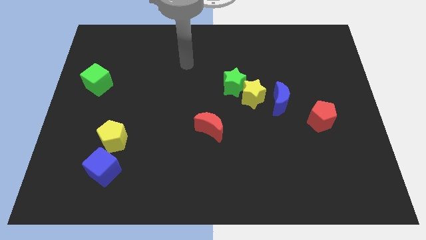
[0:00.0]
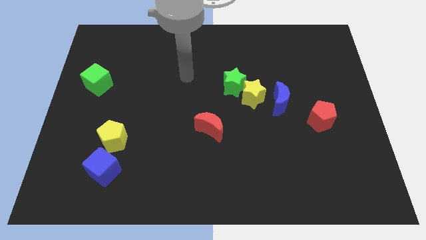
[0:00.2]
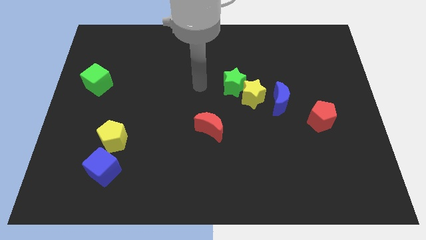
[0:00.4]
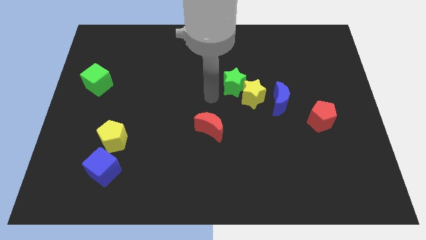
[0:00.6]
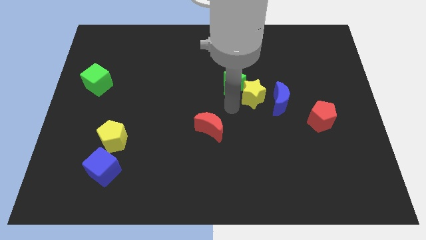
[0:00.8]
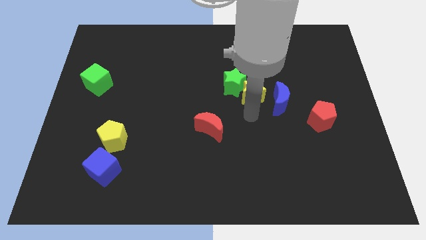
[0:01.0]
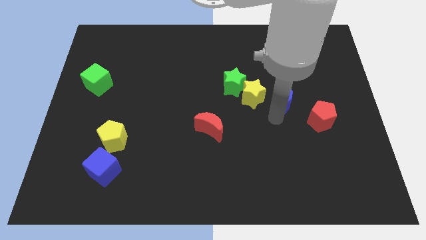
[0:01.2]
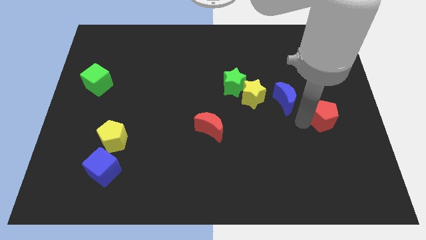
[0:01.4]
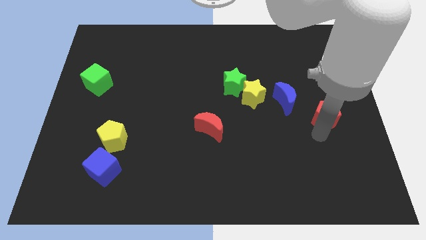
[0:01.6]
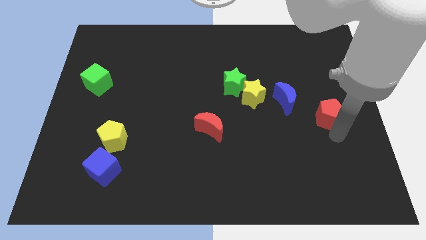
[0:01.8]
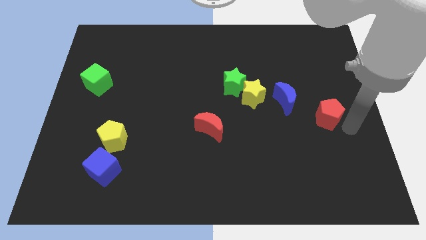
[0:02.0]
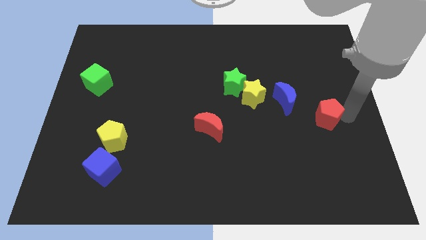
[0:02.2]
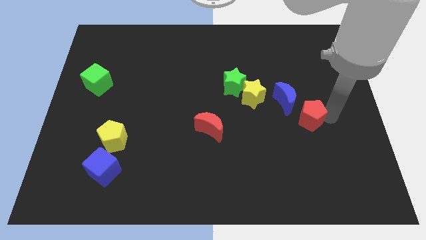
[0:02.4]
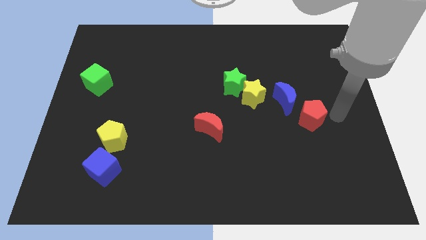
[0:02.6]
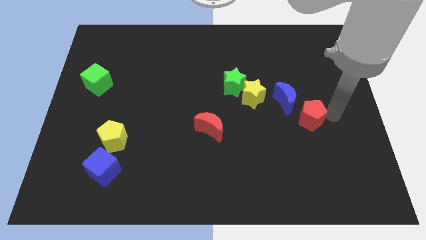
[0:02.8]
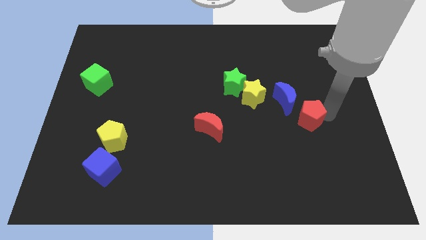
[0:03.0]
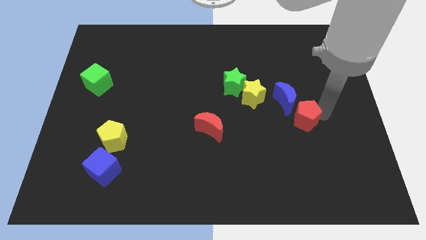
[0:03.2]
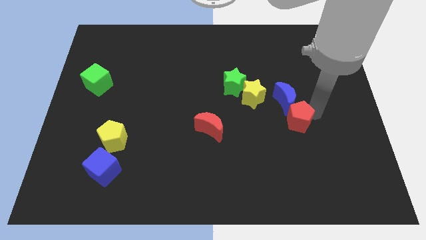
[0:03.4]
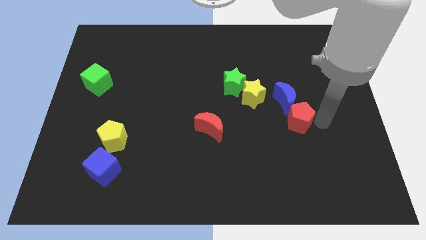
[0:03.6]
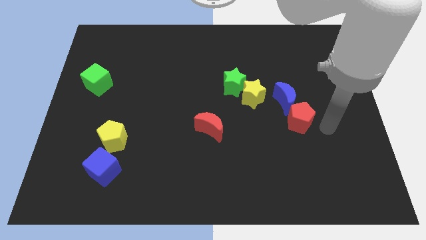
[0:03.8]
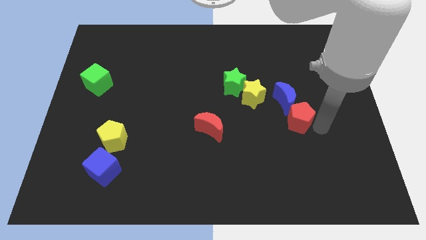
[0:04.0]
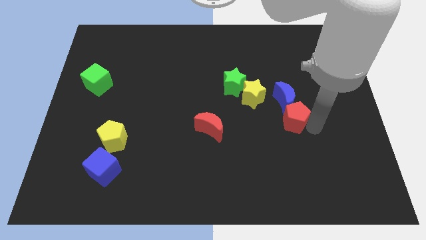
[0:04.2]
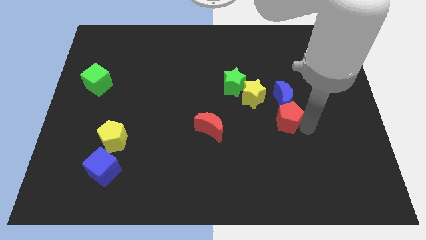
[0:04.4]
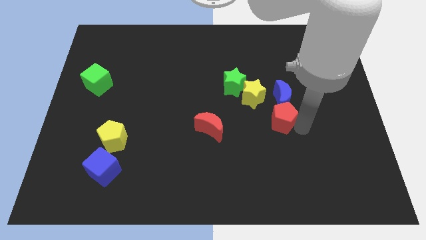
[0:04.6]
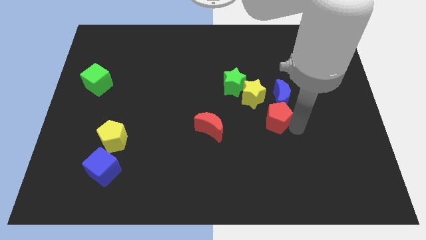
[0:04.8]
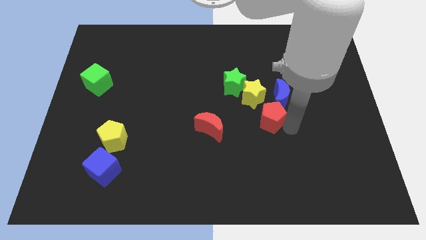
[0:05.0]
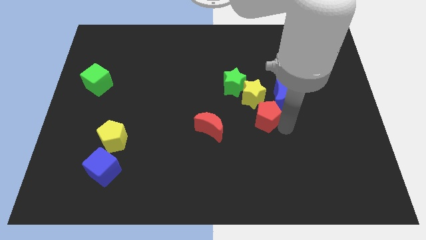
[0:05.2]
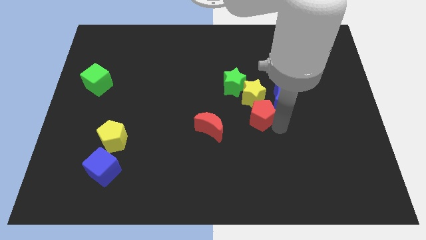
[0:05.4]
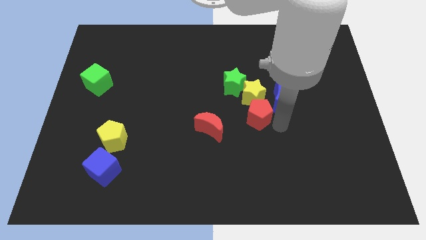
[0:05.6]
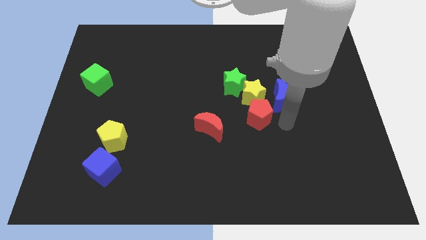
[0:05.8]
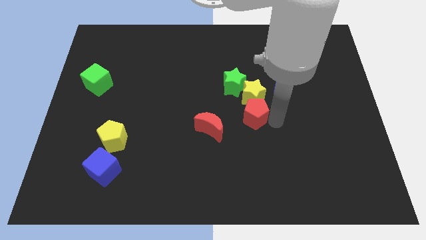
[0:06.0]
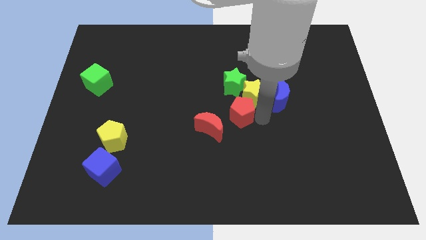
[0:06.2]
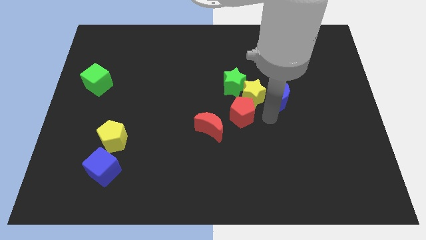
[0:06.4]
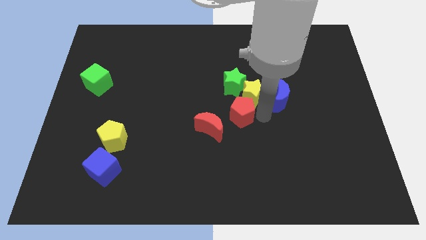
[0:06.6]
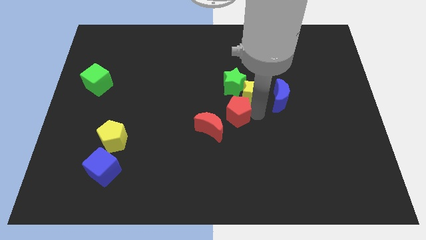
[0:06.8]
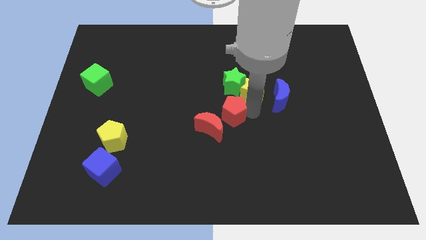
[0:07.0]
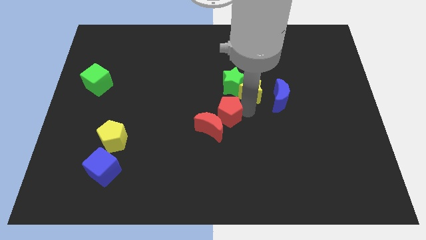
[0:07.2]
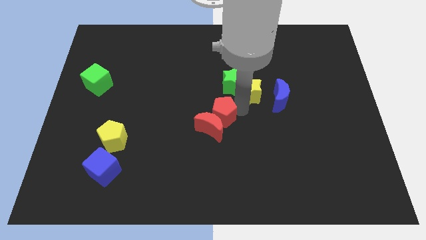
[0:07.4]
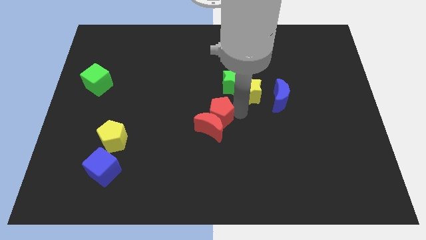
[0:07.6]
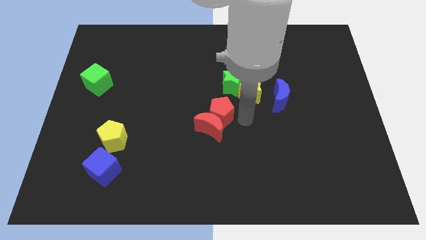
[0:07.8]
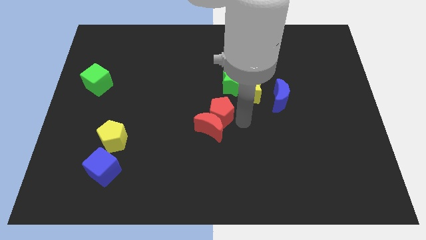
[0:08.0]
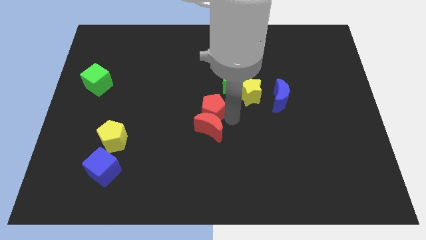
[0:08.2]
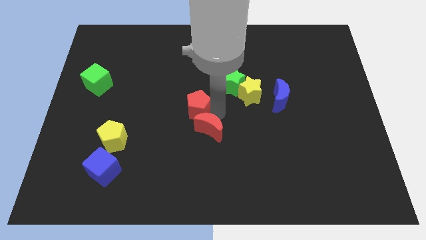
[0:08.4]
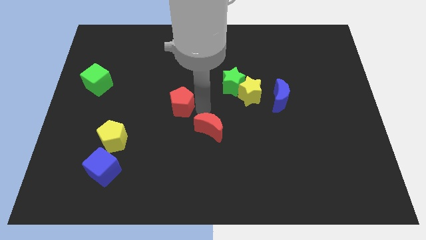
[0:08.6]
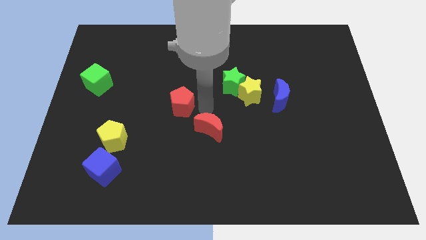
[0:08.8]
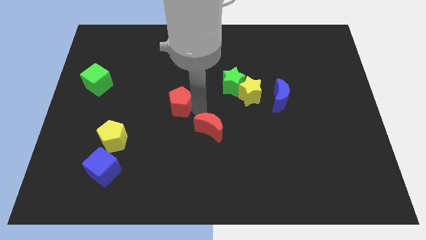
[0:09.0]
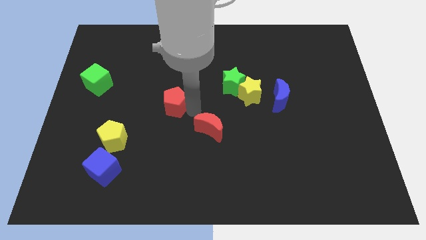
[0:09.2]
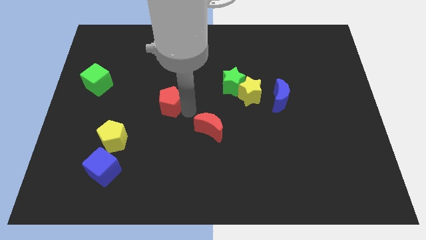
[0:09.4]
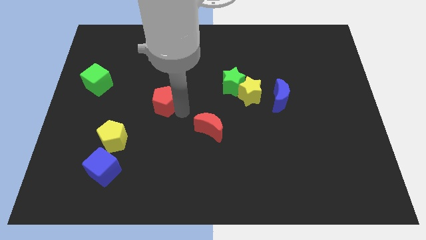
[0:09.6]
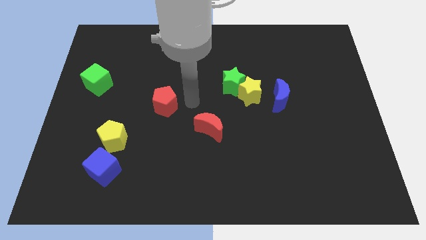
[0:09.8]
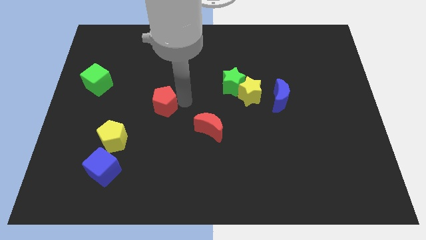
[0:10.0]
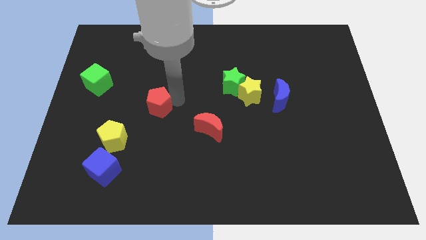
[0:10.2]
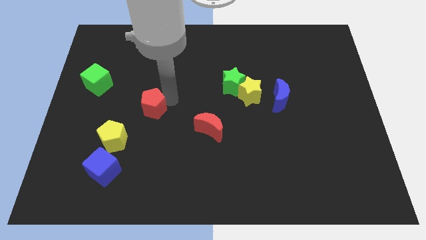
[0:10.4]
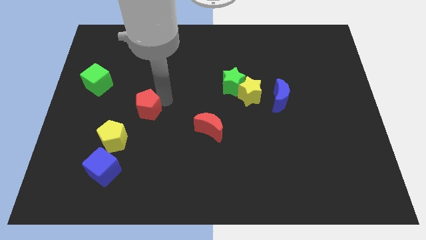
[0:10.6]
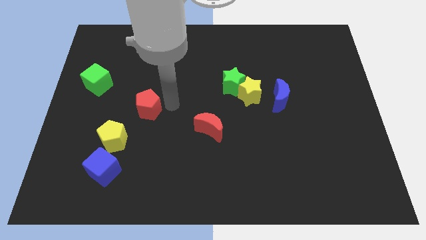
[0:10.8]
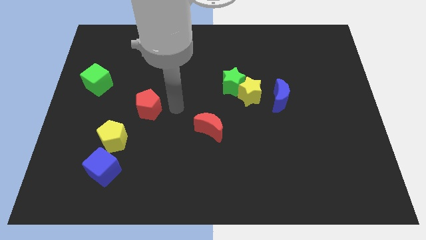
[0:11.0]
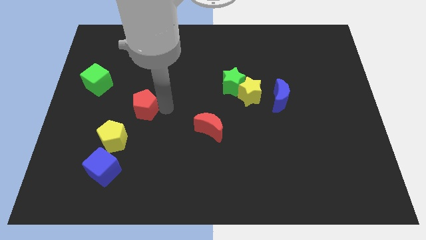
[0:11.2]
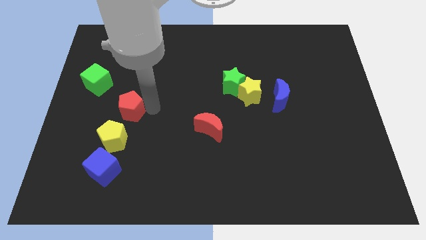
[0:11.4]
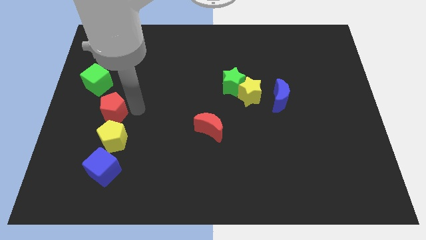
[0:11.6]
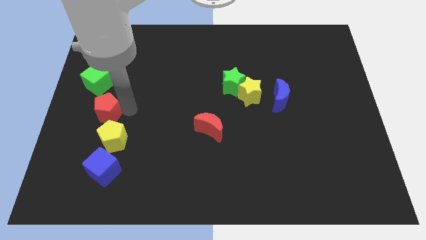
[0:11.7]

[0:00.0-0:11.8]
slide the red pentagon below the green cube

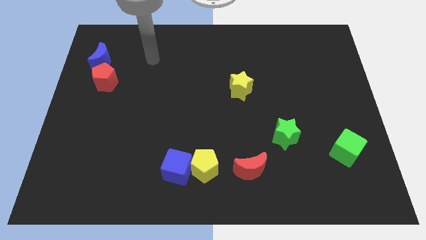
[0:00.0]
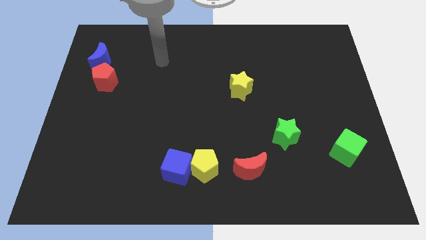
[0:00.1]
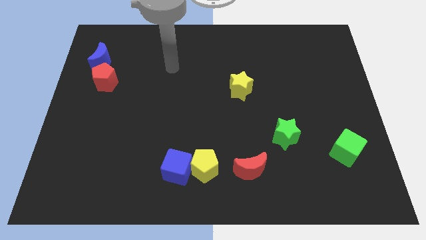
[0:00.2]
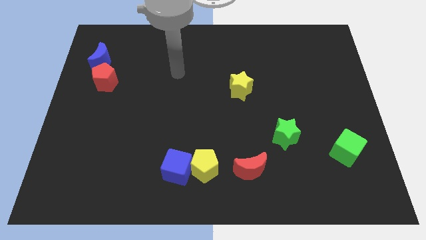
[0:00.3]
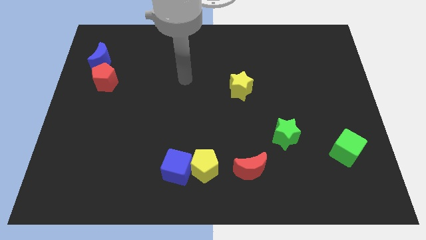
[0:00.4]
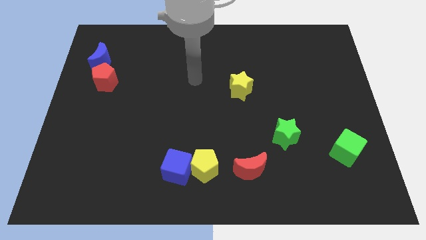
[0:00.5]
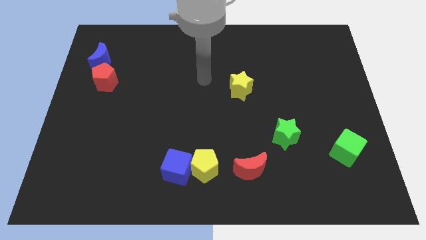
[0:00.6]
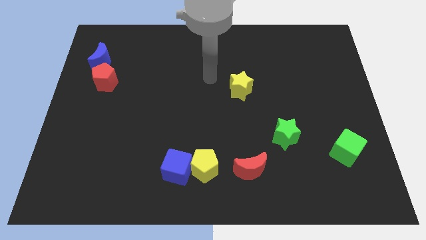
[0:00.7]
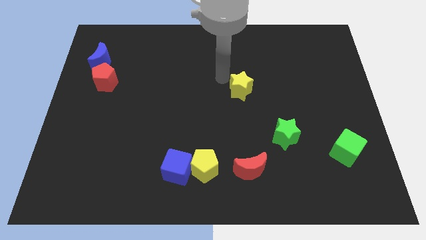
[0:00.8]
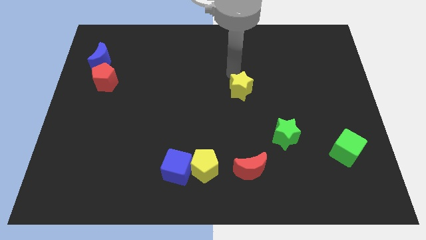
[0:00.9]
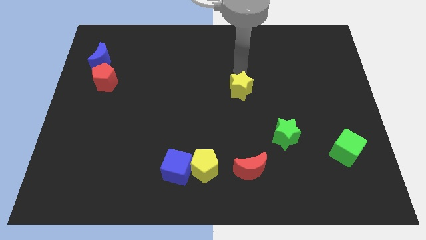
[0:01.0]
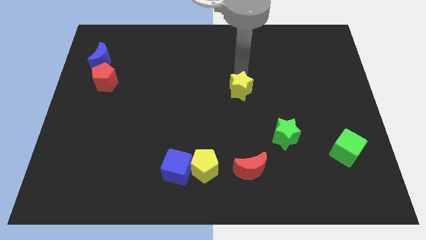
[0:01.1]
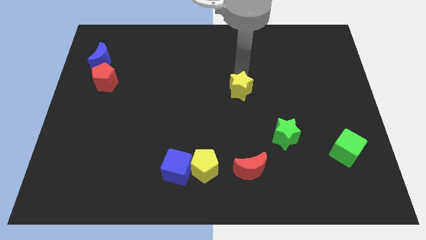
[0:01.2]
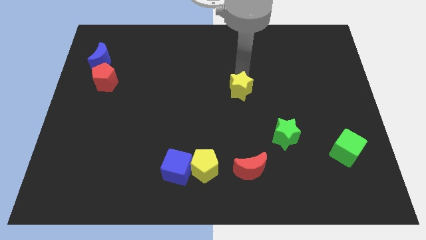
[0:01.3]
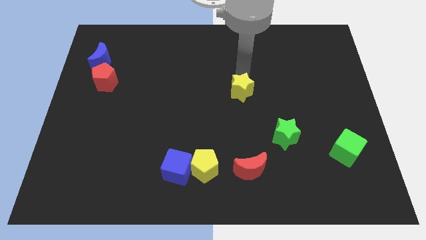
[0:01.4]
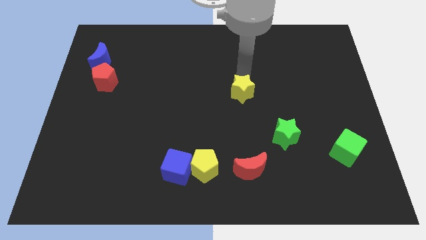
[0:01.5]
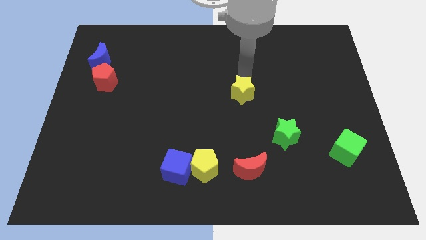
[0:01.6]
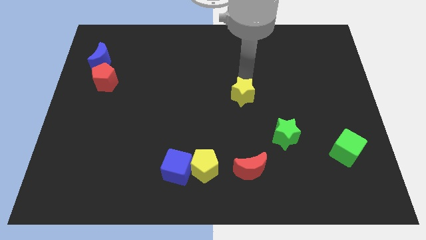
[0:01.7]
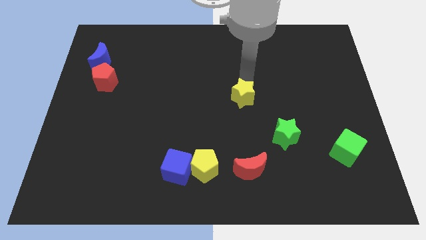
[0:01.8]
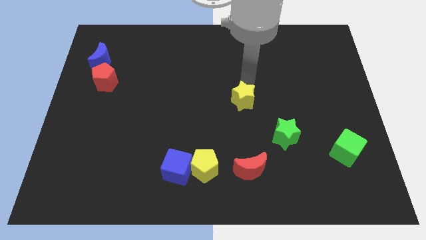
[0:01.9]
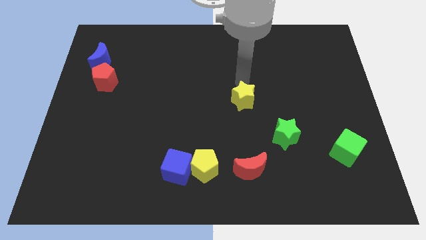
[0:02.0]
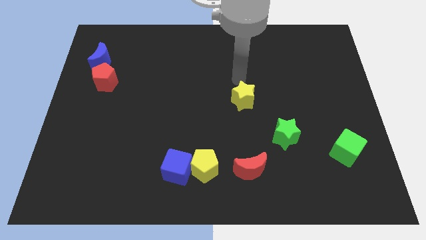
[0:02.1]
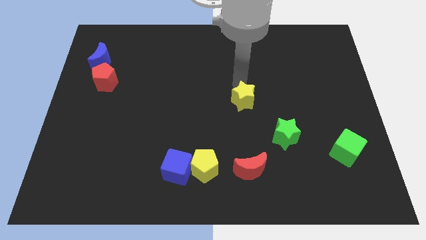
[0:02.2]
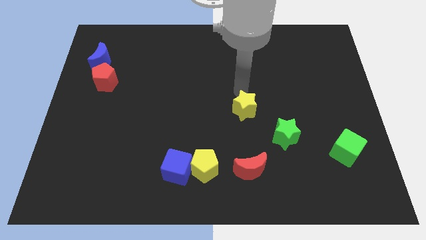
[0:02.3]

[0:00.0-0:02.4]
slide the yellow star above the red moon
